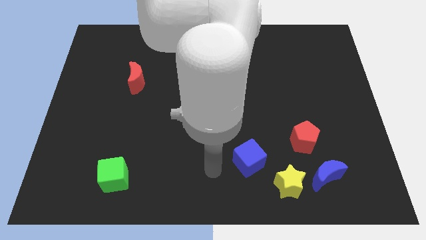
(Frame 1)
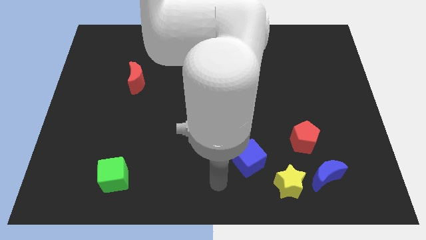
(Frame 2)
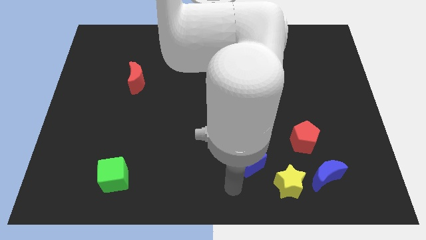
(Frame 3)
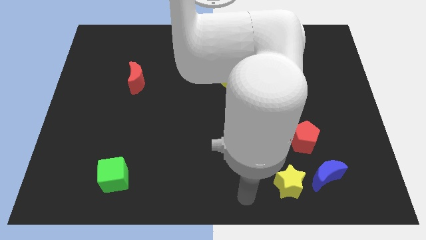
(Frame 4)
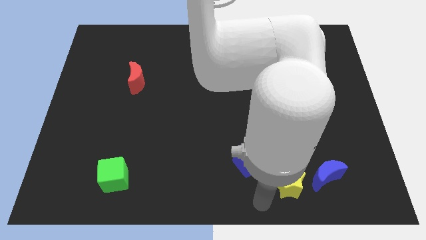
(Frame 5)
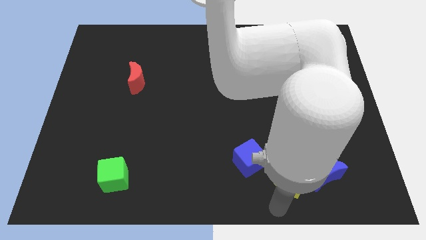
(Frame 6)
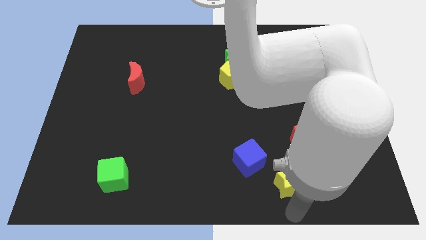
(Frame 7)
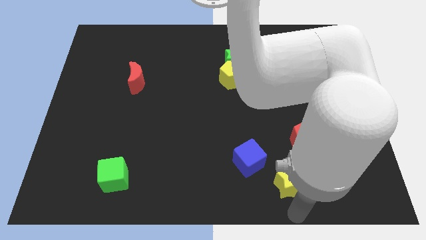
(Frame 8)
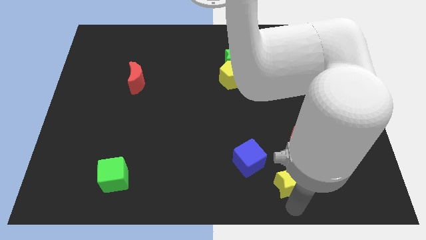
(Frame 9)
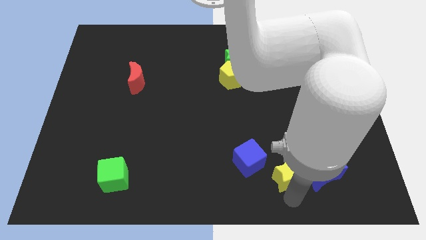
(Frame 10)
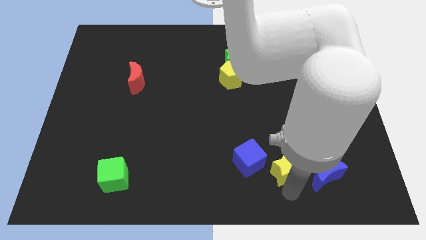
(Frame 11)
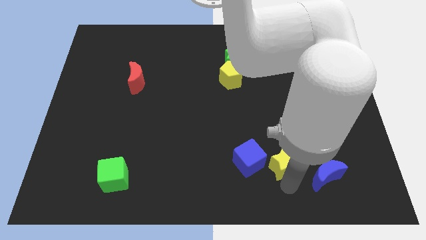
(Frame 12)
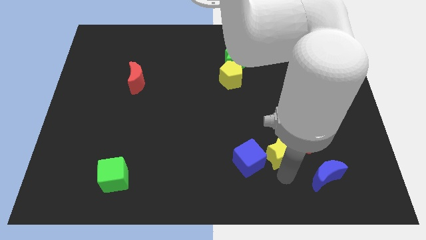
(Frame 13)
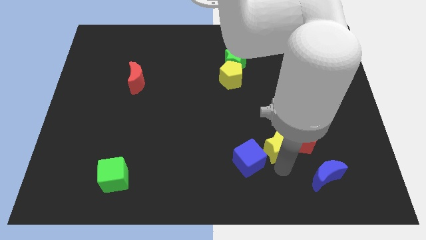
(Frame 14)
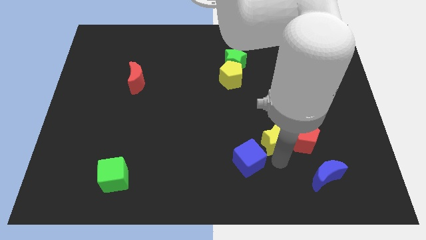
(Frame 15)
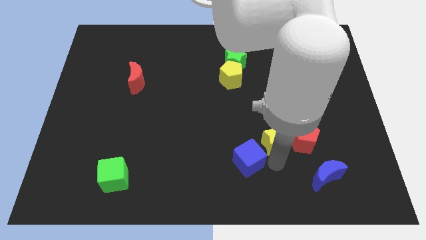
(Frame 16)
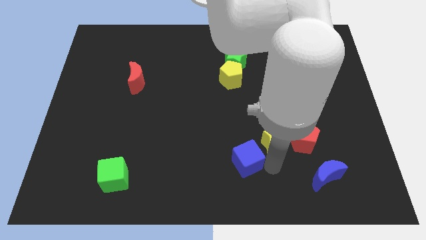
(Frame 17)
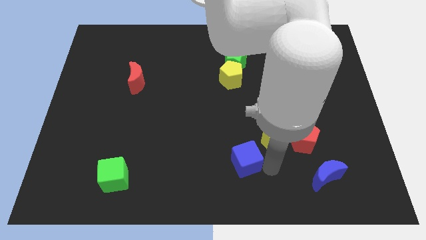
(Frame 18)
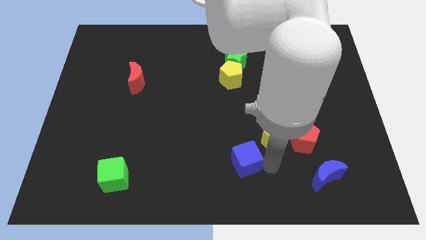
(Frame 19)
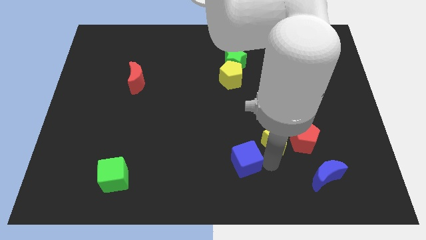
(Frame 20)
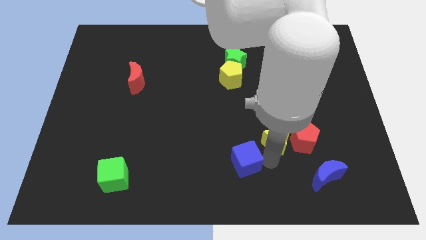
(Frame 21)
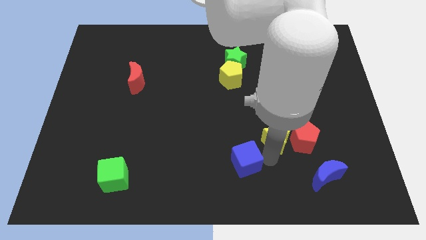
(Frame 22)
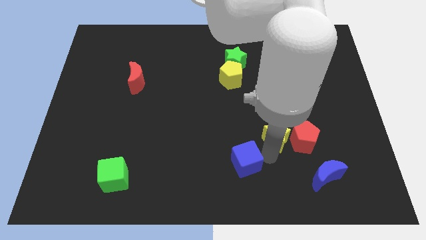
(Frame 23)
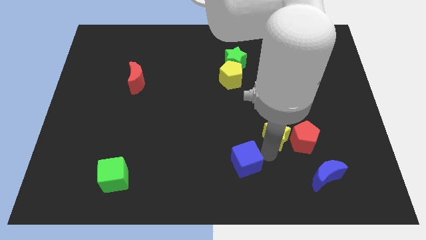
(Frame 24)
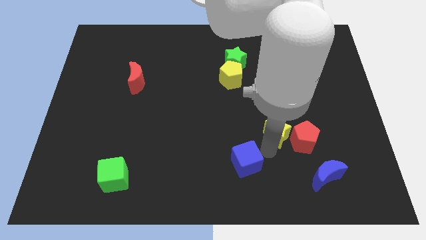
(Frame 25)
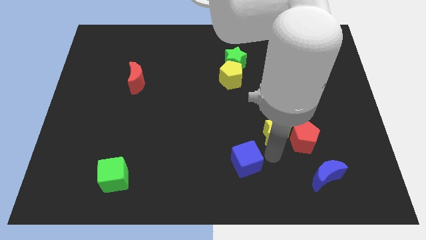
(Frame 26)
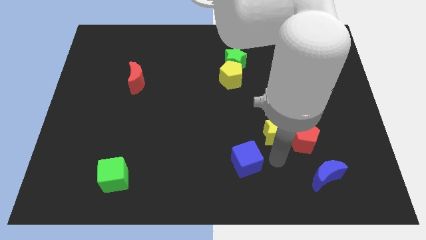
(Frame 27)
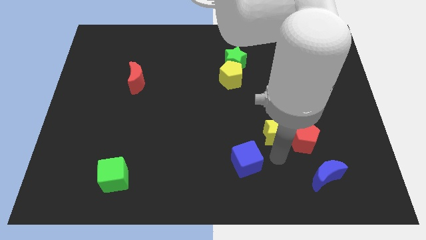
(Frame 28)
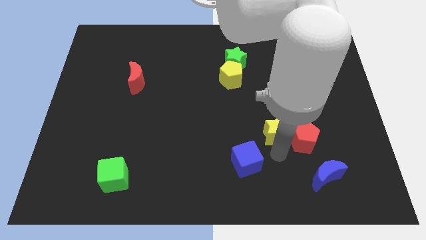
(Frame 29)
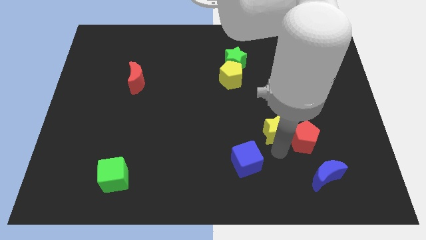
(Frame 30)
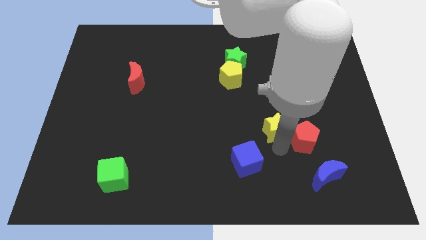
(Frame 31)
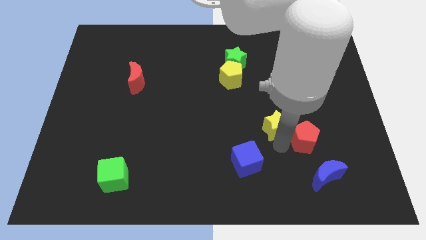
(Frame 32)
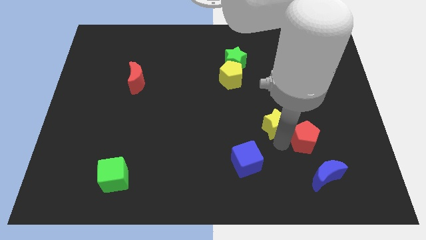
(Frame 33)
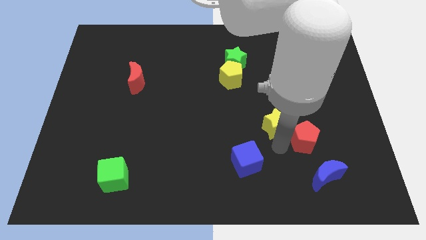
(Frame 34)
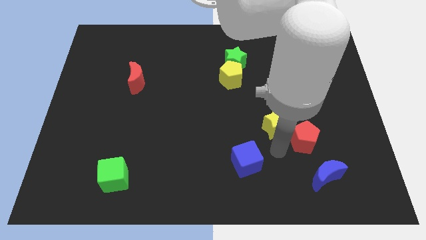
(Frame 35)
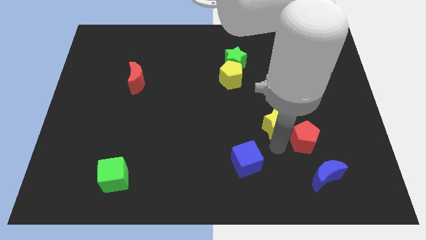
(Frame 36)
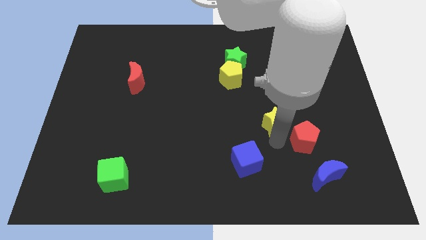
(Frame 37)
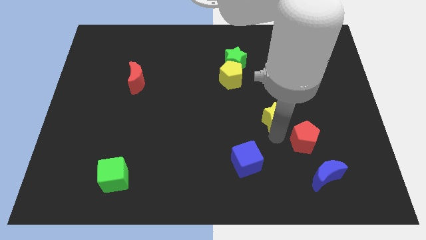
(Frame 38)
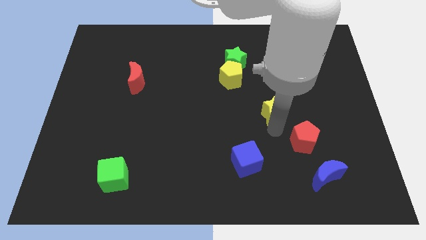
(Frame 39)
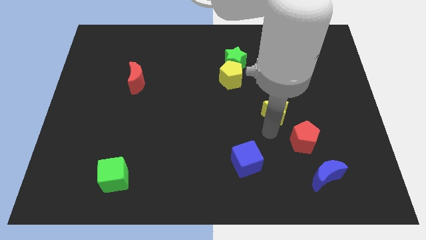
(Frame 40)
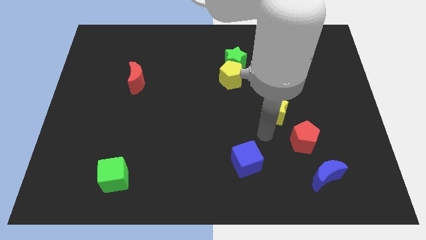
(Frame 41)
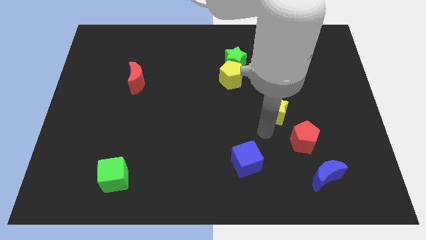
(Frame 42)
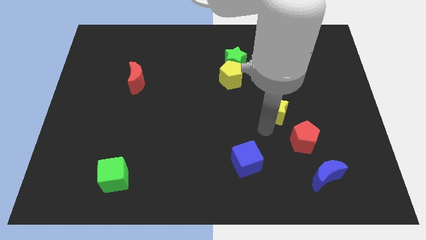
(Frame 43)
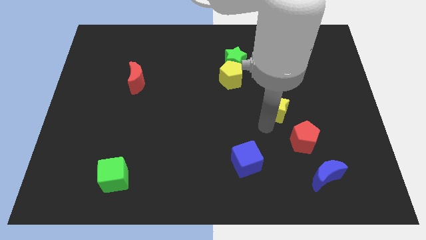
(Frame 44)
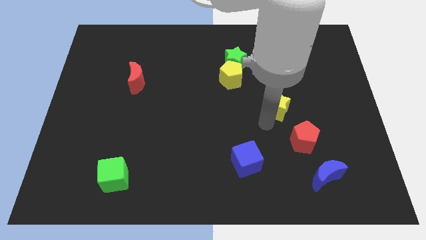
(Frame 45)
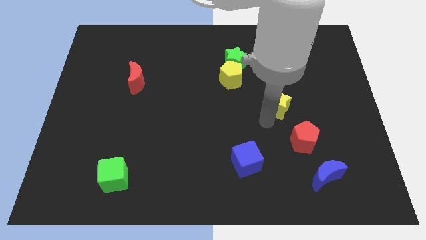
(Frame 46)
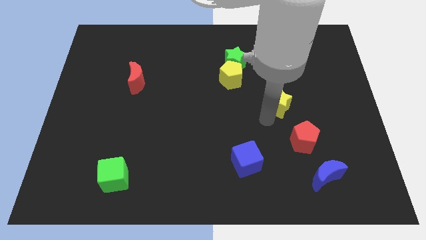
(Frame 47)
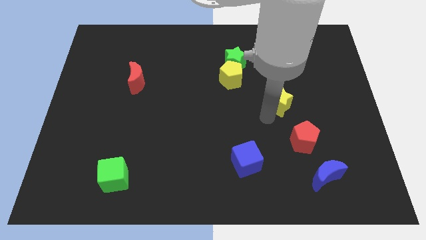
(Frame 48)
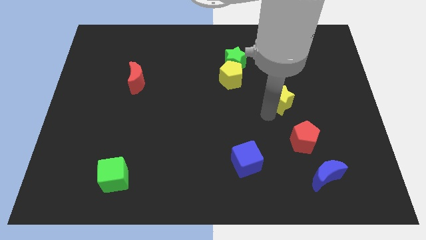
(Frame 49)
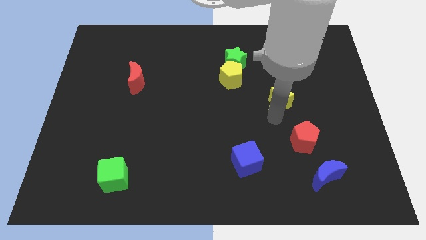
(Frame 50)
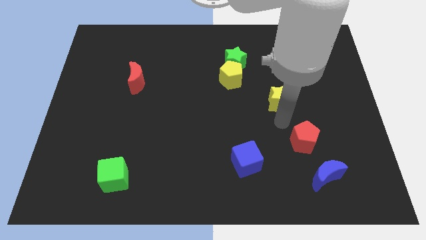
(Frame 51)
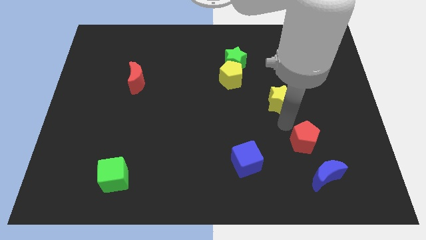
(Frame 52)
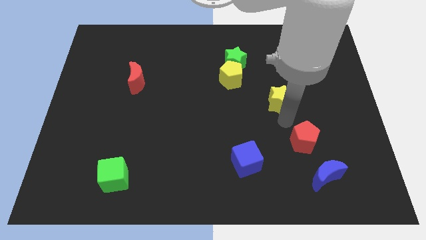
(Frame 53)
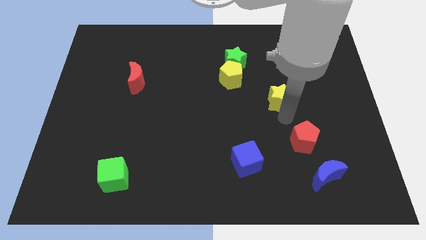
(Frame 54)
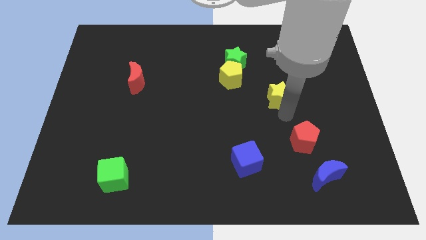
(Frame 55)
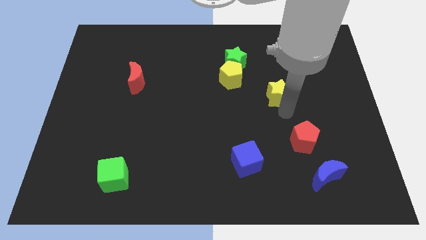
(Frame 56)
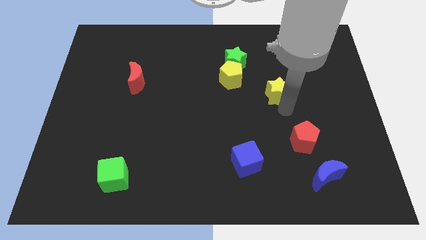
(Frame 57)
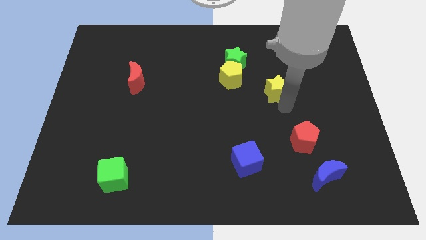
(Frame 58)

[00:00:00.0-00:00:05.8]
slide the yellow star to the right side of the yellow pentagon

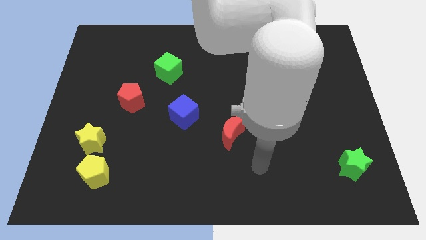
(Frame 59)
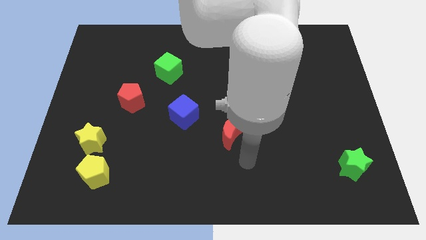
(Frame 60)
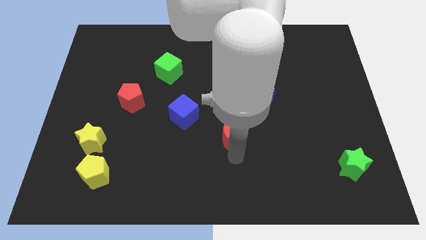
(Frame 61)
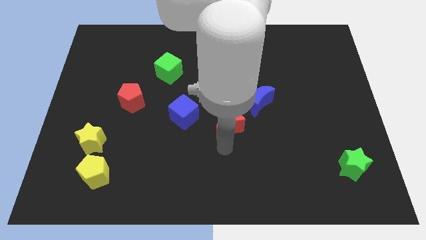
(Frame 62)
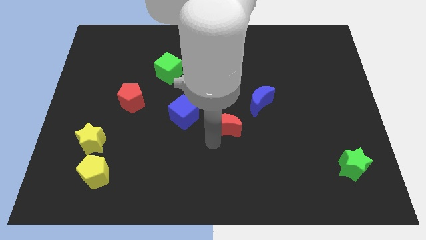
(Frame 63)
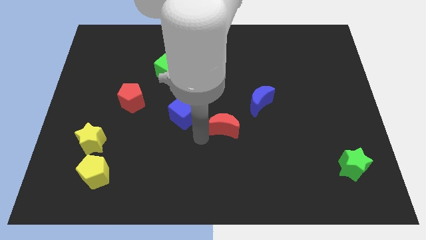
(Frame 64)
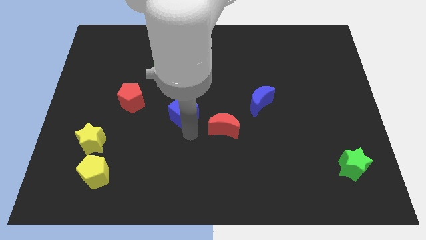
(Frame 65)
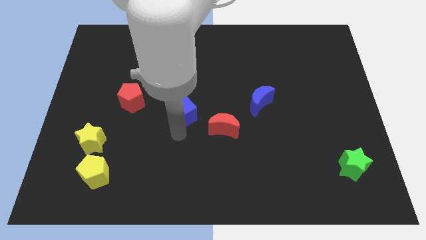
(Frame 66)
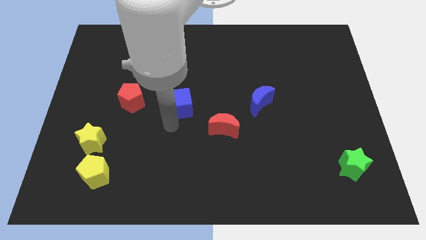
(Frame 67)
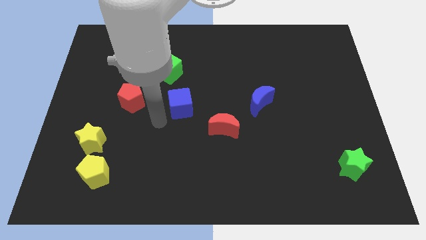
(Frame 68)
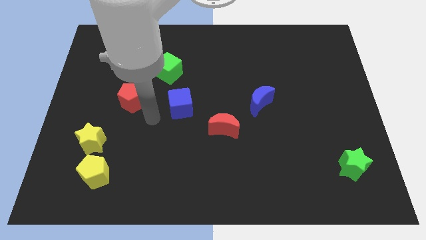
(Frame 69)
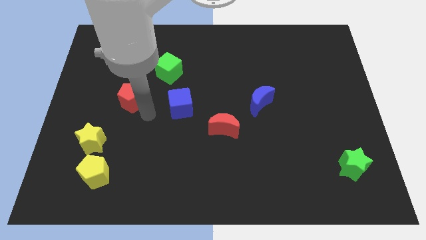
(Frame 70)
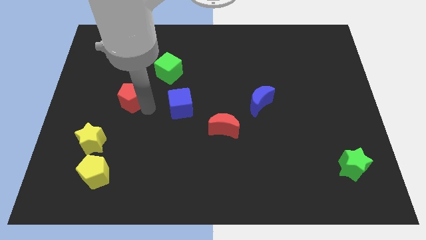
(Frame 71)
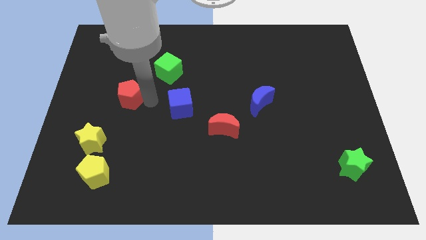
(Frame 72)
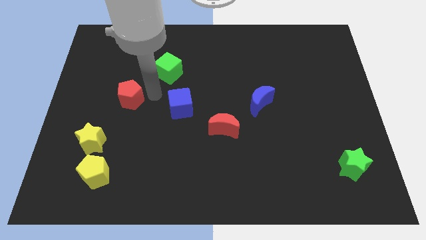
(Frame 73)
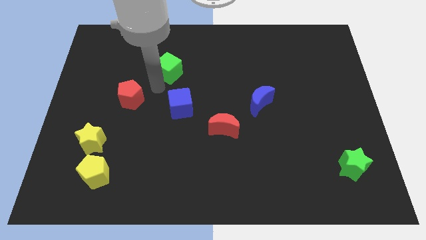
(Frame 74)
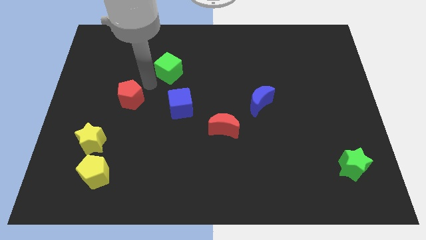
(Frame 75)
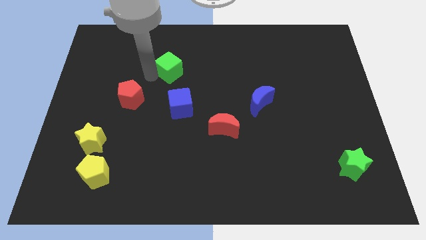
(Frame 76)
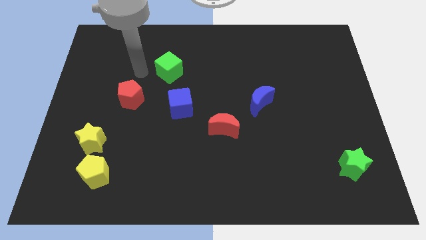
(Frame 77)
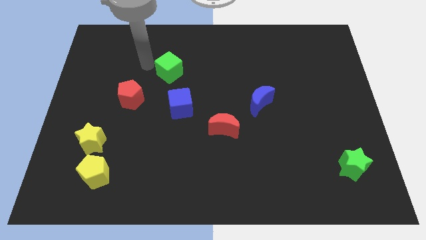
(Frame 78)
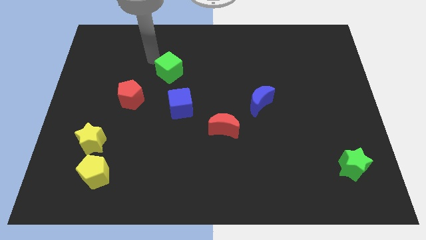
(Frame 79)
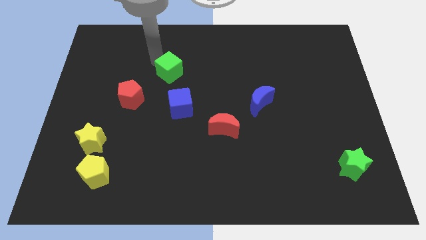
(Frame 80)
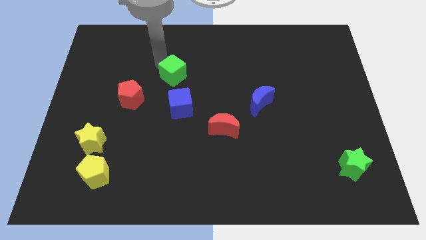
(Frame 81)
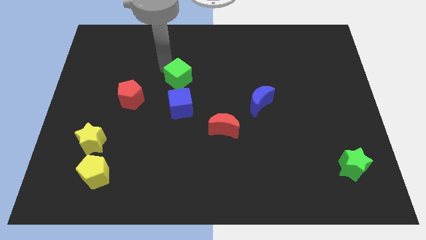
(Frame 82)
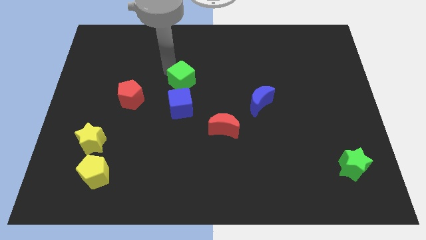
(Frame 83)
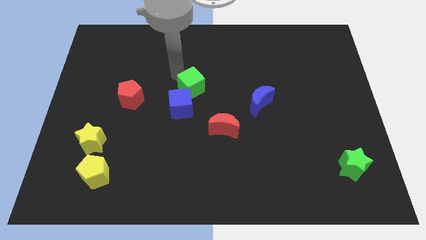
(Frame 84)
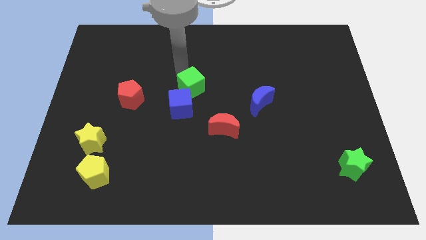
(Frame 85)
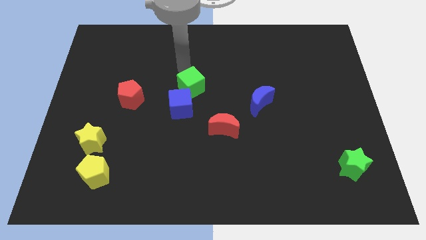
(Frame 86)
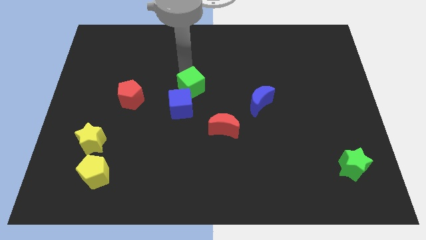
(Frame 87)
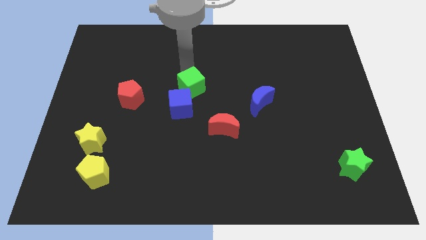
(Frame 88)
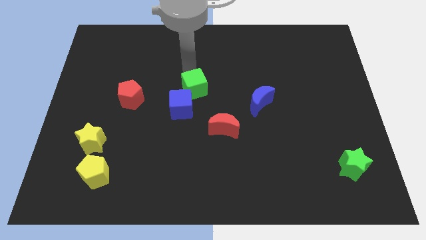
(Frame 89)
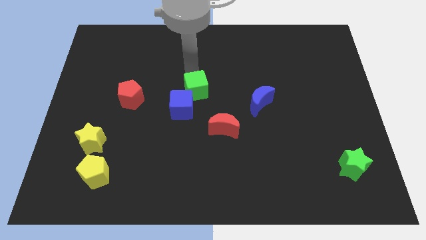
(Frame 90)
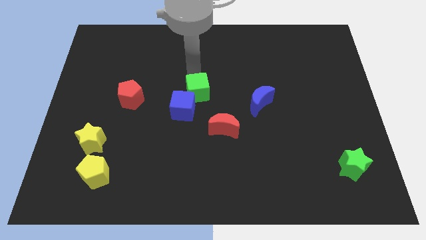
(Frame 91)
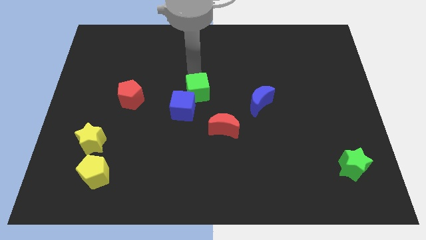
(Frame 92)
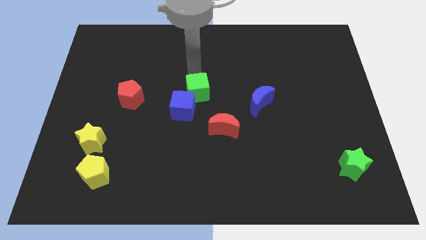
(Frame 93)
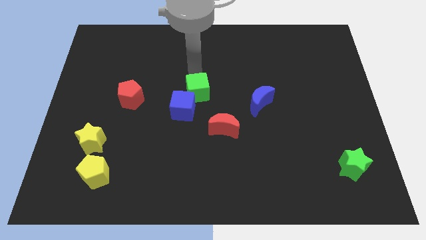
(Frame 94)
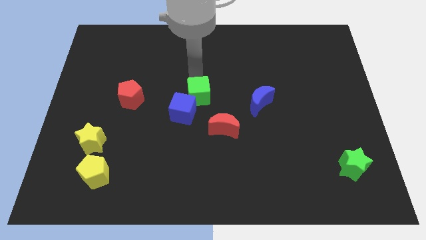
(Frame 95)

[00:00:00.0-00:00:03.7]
push the green cube to the top left of the red moon
